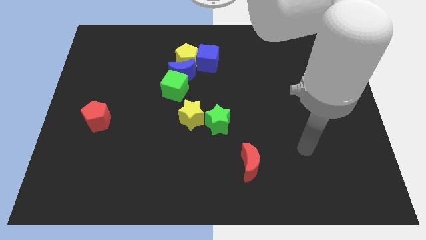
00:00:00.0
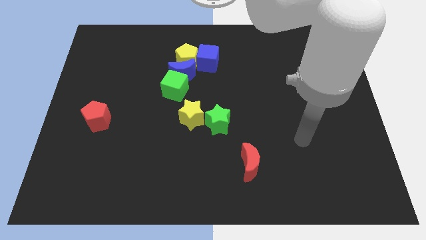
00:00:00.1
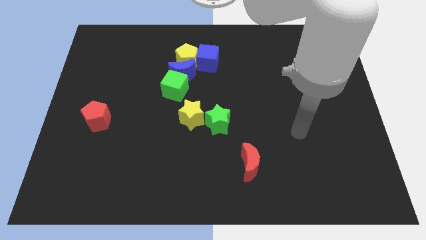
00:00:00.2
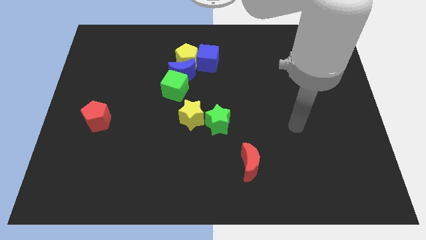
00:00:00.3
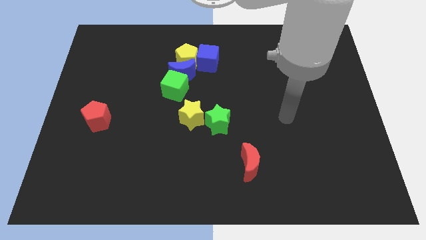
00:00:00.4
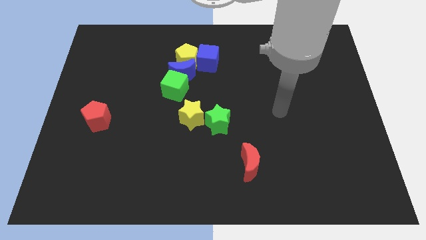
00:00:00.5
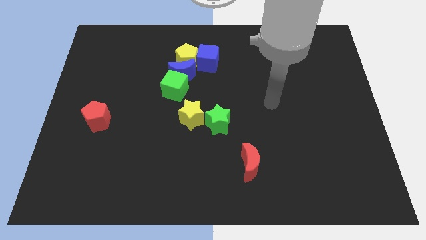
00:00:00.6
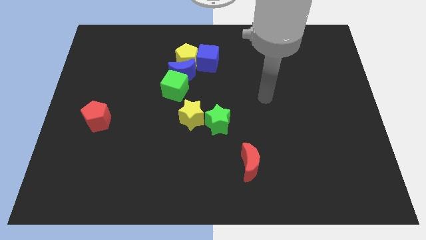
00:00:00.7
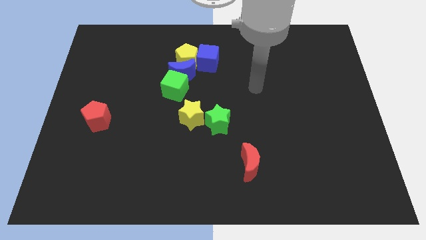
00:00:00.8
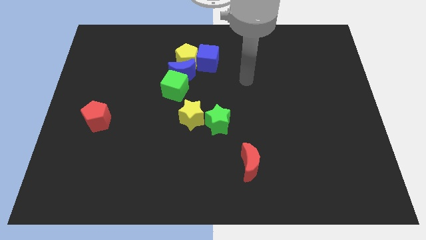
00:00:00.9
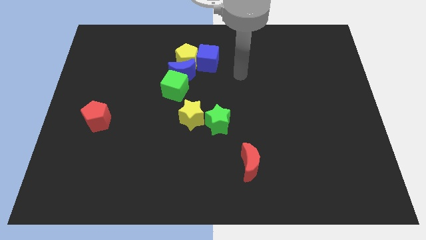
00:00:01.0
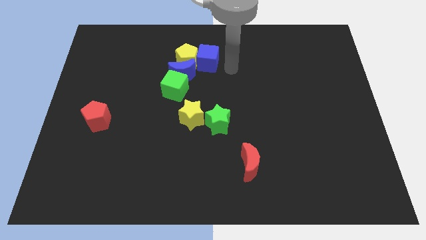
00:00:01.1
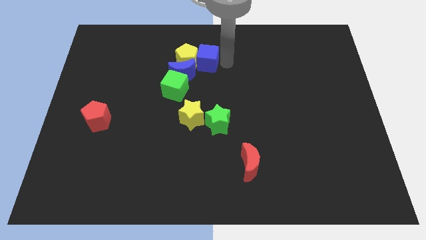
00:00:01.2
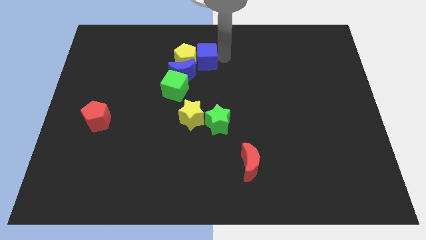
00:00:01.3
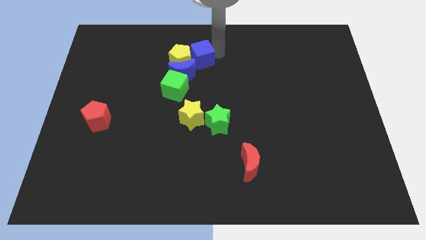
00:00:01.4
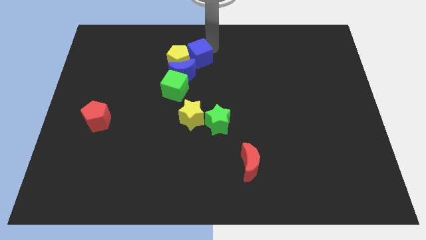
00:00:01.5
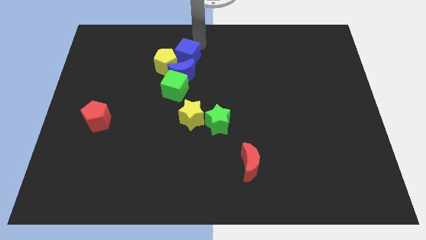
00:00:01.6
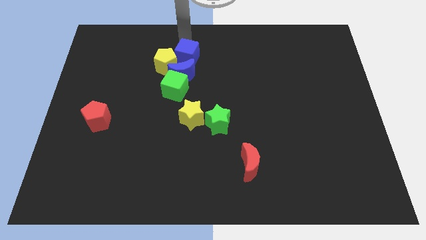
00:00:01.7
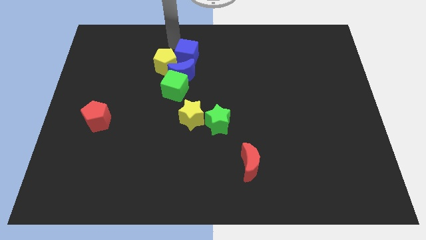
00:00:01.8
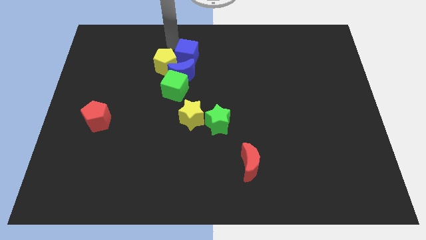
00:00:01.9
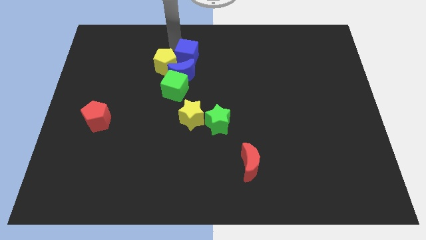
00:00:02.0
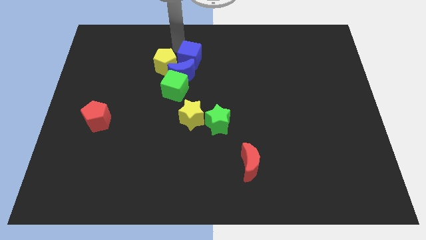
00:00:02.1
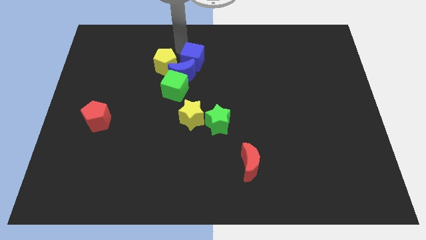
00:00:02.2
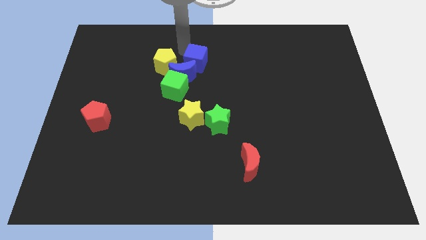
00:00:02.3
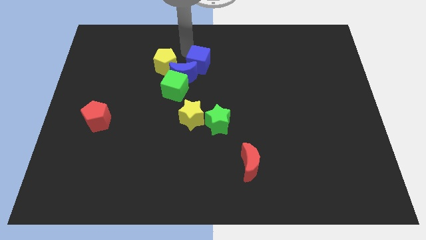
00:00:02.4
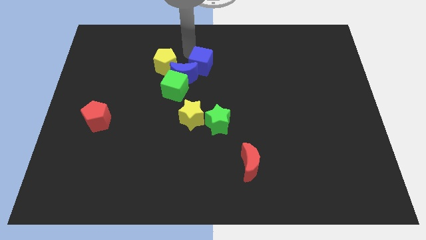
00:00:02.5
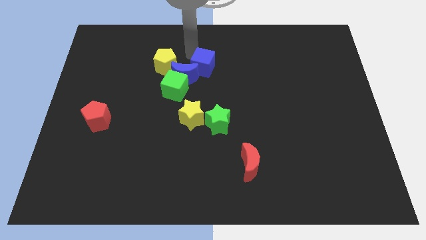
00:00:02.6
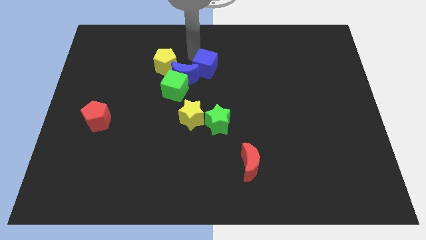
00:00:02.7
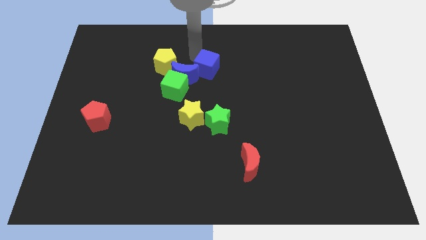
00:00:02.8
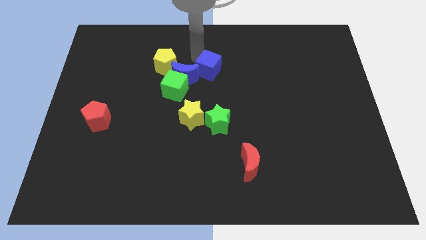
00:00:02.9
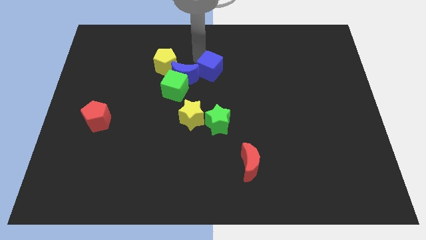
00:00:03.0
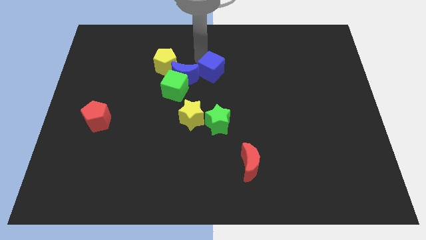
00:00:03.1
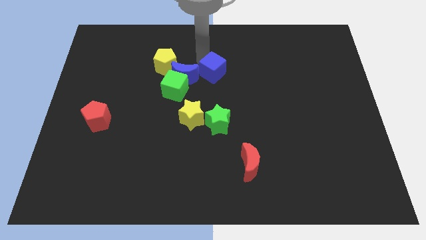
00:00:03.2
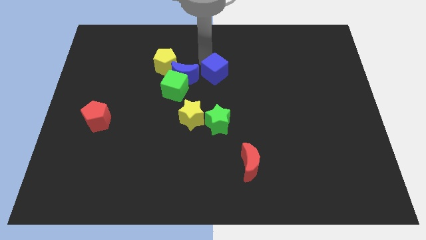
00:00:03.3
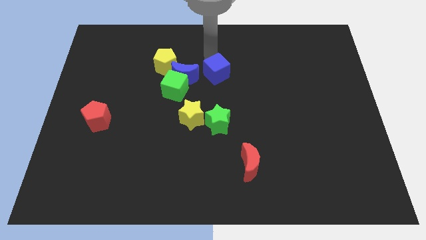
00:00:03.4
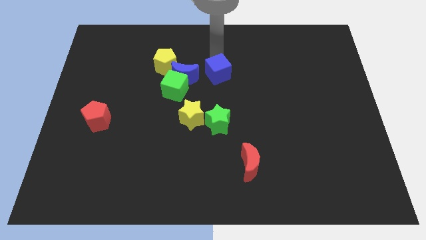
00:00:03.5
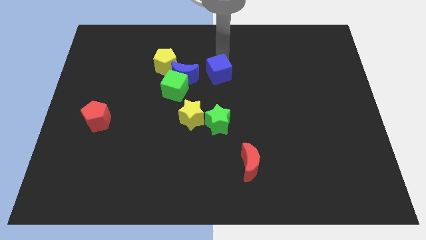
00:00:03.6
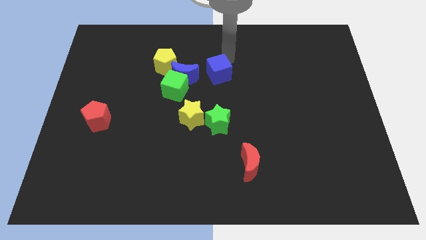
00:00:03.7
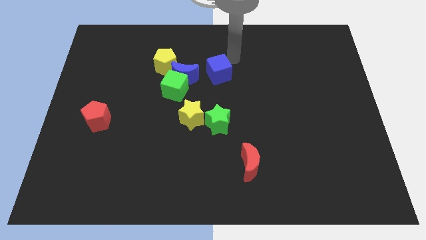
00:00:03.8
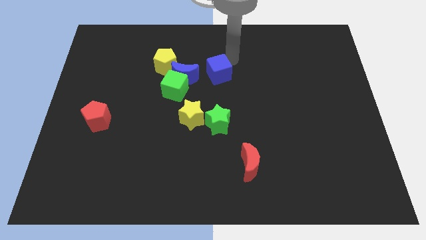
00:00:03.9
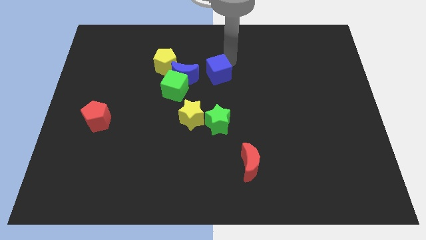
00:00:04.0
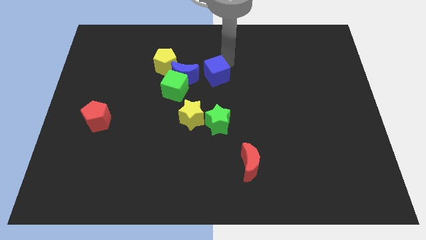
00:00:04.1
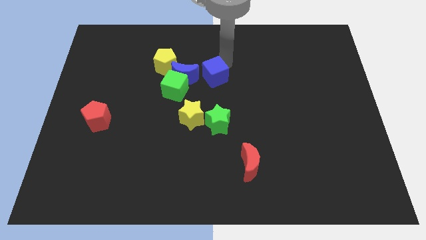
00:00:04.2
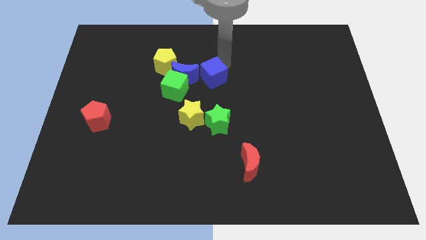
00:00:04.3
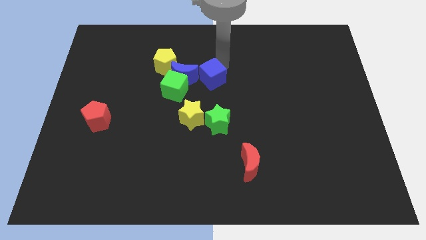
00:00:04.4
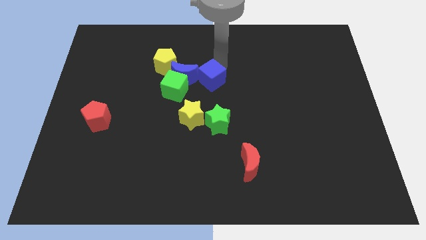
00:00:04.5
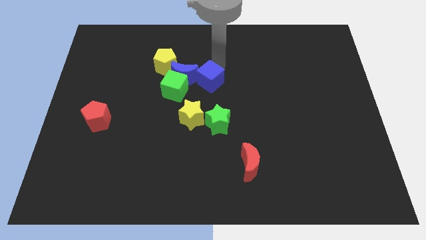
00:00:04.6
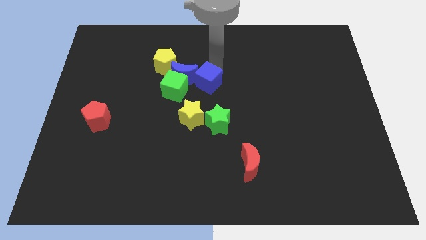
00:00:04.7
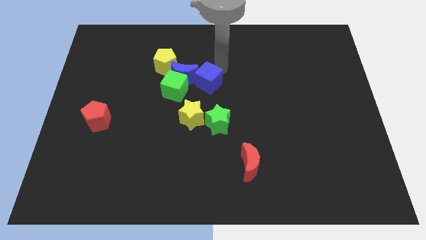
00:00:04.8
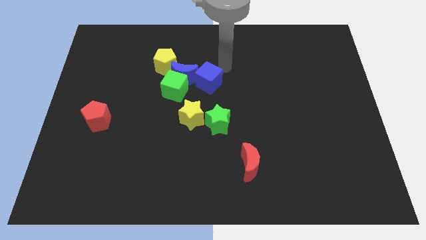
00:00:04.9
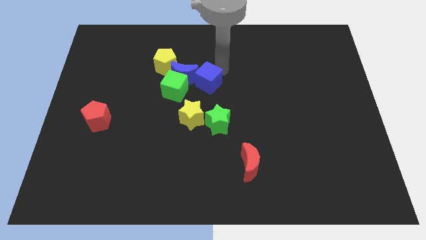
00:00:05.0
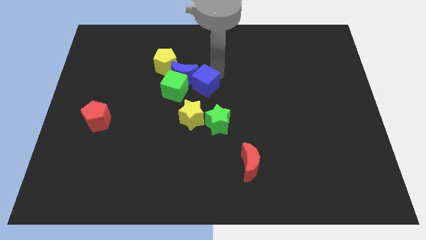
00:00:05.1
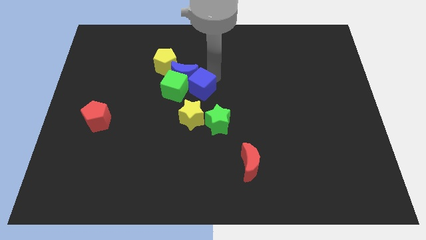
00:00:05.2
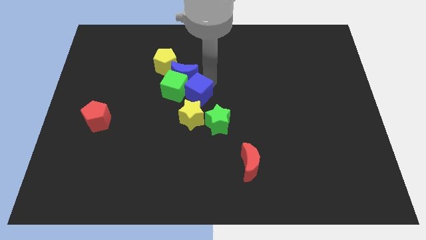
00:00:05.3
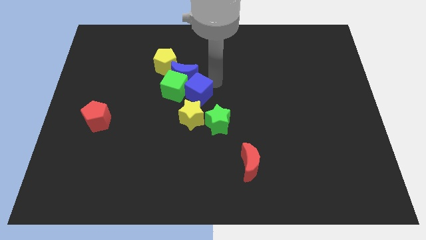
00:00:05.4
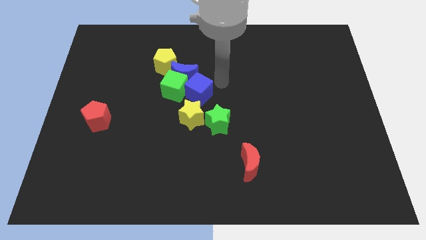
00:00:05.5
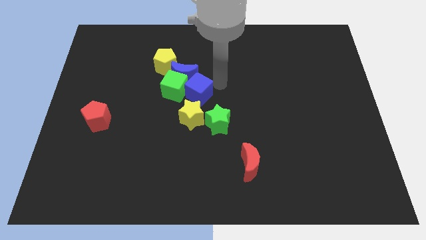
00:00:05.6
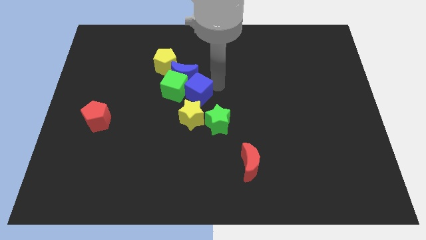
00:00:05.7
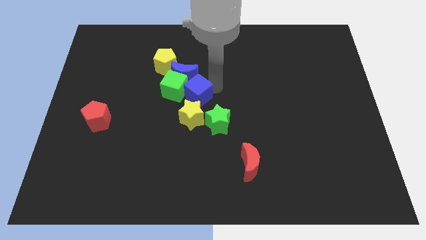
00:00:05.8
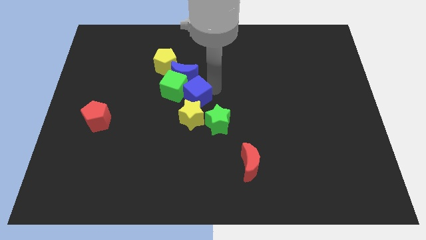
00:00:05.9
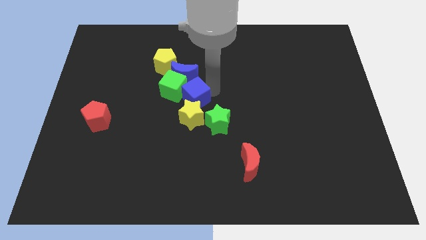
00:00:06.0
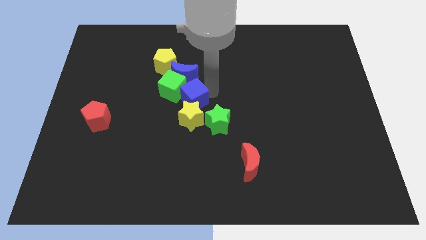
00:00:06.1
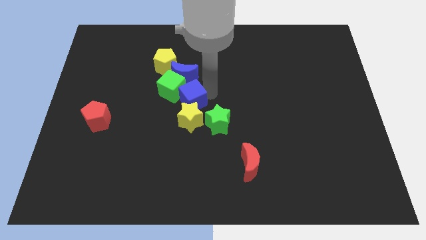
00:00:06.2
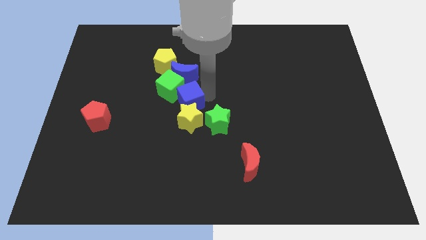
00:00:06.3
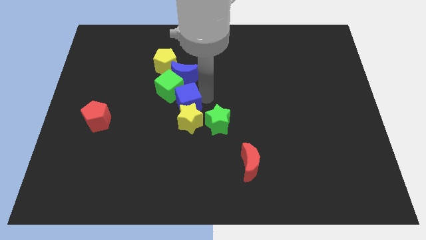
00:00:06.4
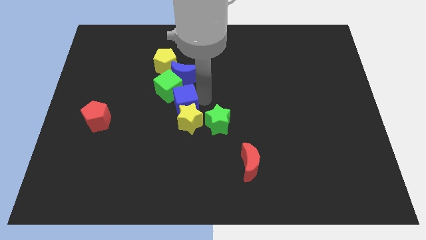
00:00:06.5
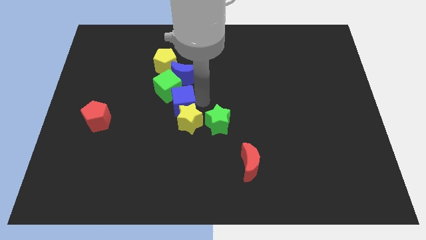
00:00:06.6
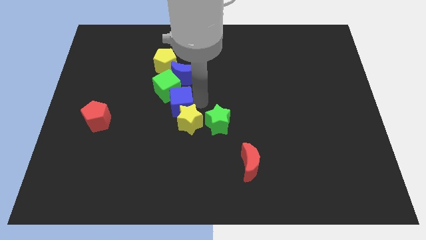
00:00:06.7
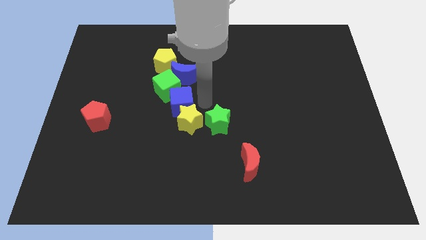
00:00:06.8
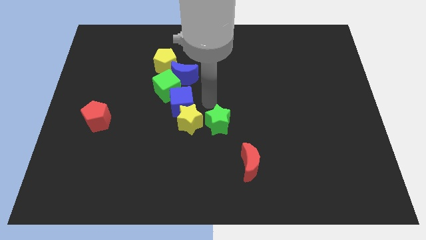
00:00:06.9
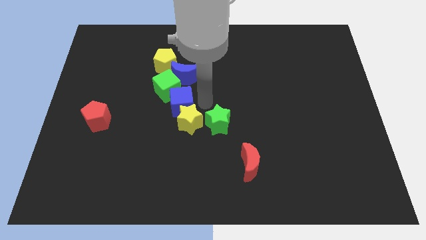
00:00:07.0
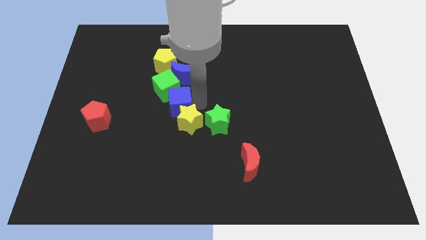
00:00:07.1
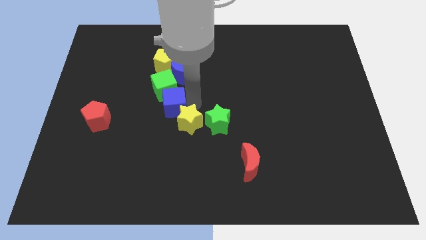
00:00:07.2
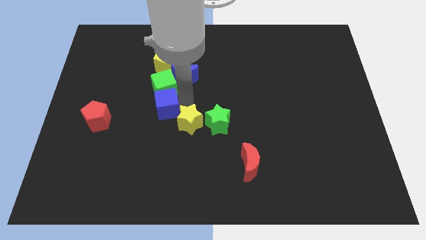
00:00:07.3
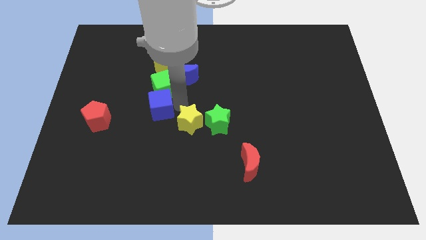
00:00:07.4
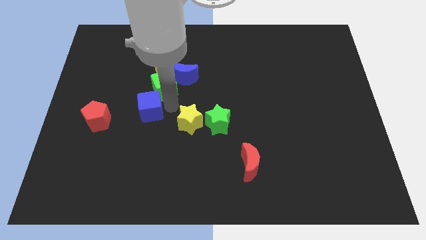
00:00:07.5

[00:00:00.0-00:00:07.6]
push the blue cube down and left diagonally

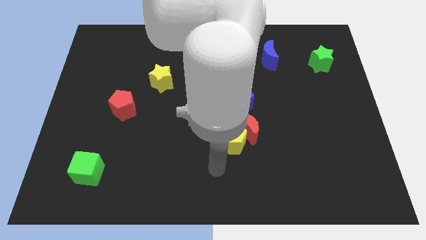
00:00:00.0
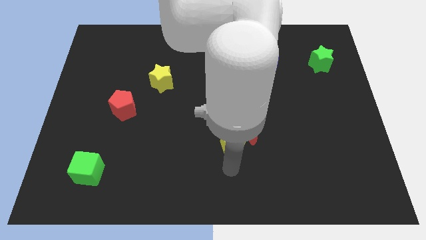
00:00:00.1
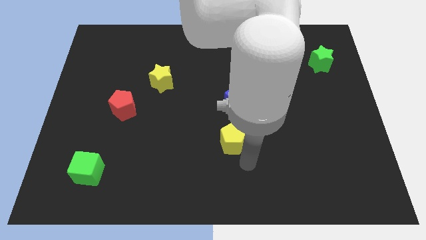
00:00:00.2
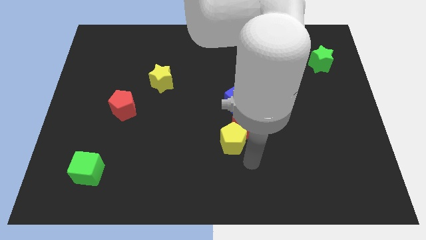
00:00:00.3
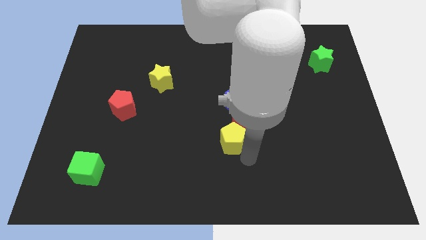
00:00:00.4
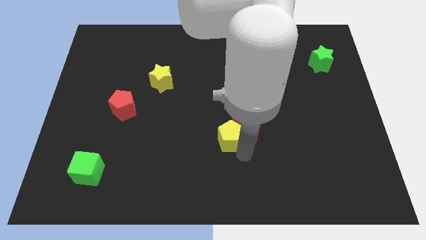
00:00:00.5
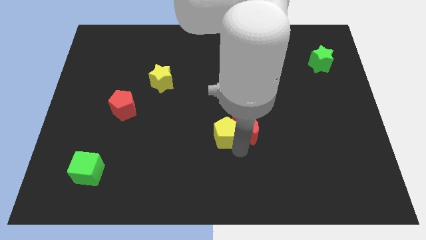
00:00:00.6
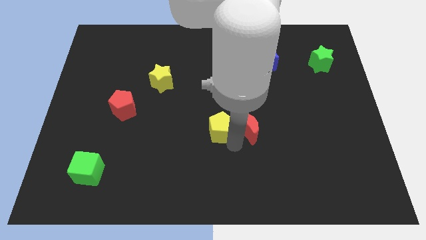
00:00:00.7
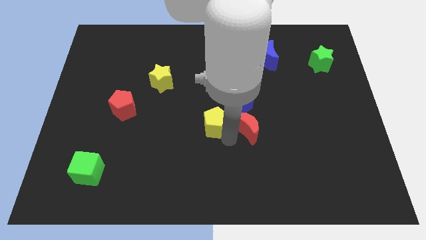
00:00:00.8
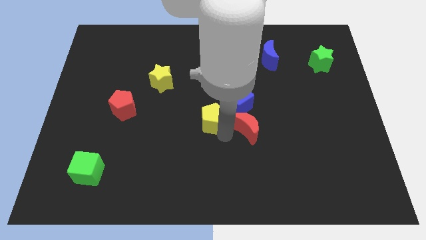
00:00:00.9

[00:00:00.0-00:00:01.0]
slightly move the yellow pentagon upwards and left
